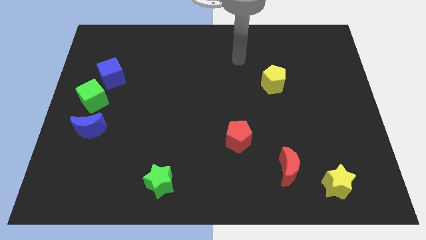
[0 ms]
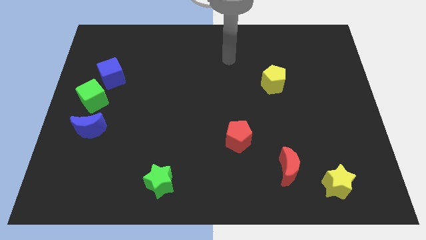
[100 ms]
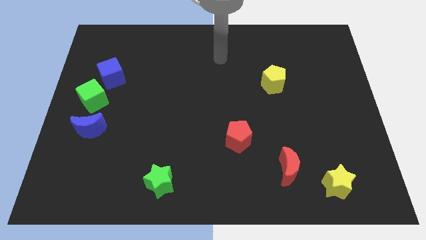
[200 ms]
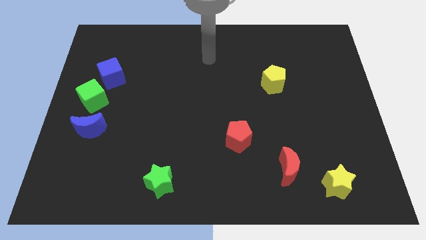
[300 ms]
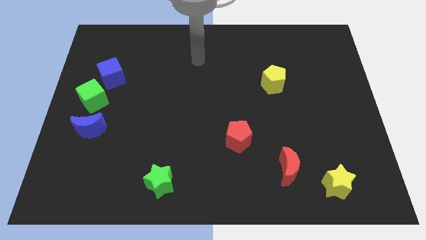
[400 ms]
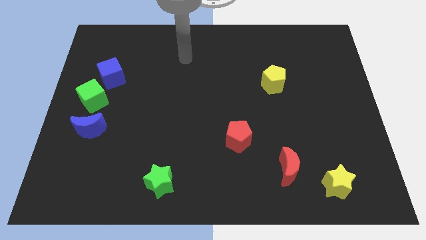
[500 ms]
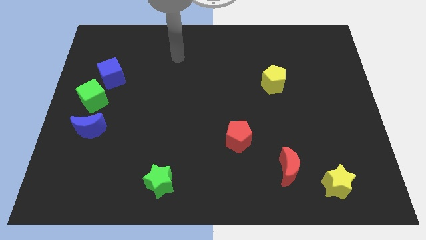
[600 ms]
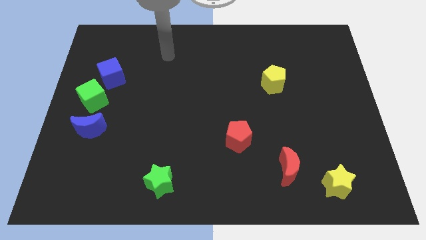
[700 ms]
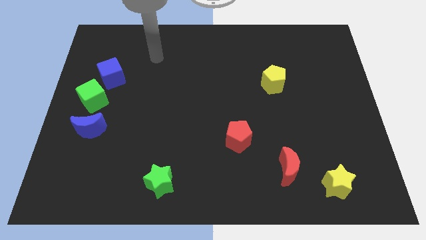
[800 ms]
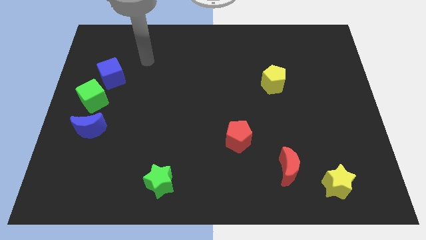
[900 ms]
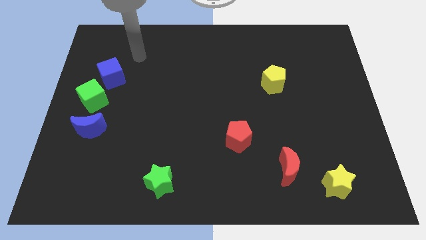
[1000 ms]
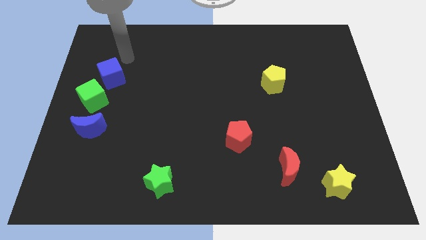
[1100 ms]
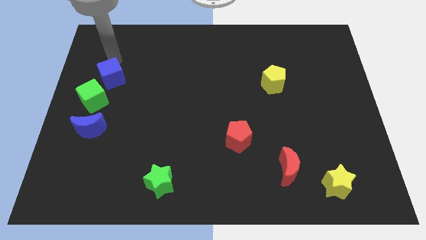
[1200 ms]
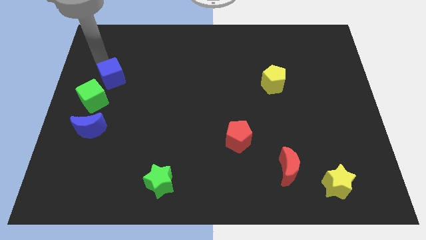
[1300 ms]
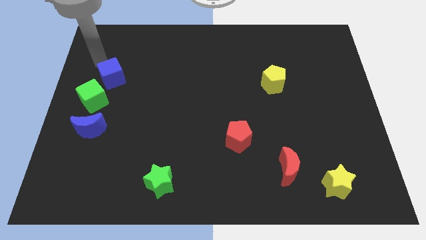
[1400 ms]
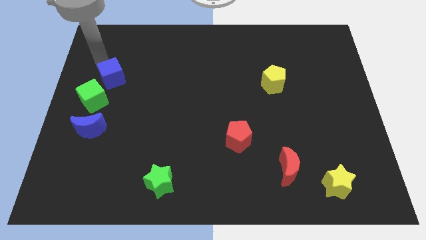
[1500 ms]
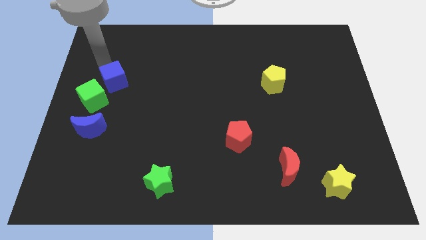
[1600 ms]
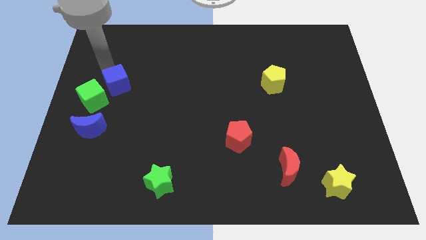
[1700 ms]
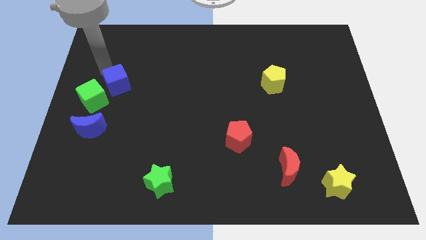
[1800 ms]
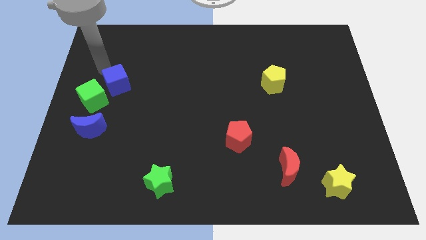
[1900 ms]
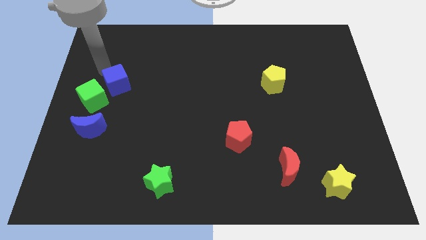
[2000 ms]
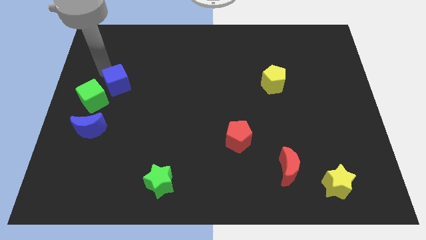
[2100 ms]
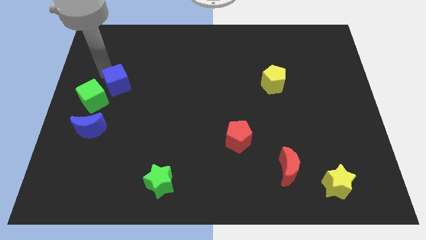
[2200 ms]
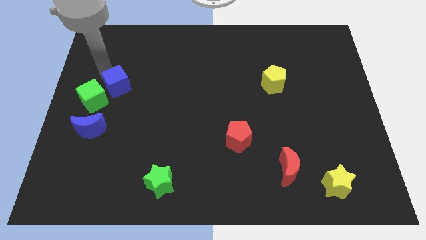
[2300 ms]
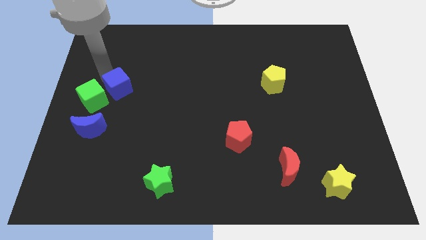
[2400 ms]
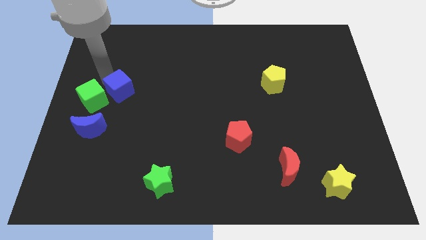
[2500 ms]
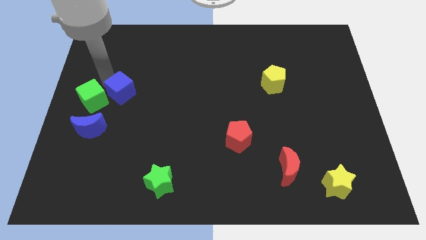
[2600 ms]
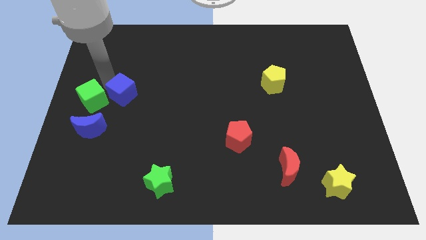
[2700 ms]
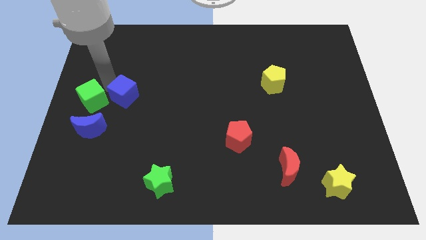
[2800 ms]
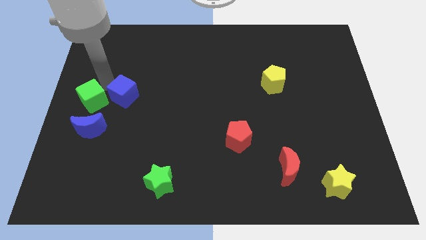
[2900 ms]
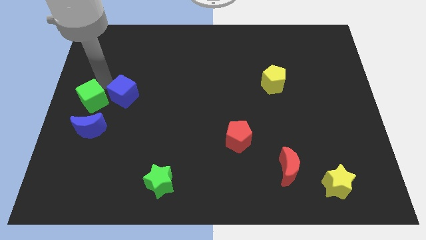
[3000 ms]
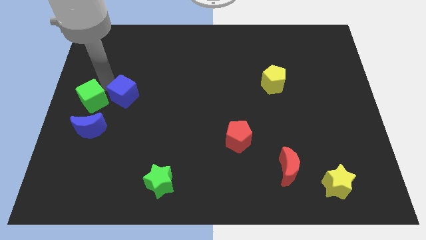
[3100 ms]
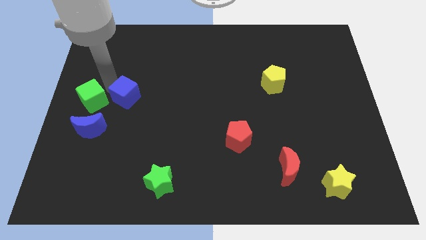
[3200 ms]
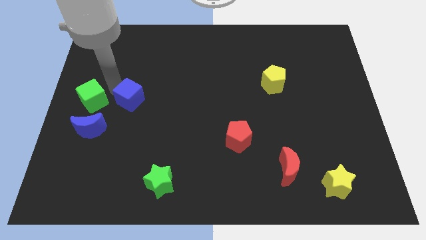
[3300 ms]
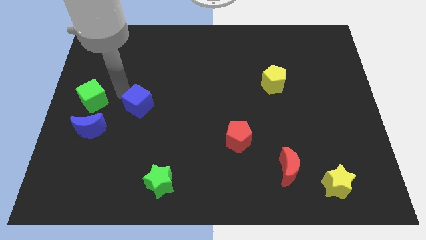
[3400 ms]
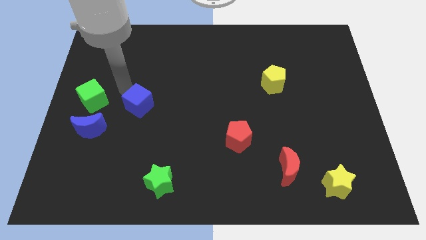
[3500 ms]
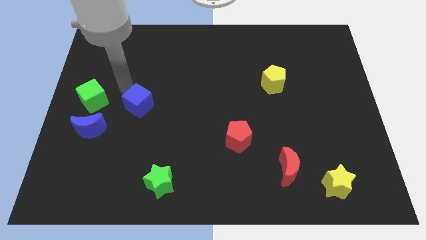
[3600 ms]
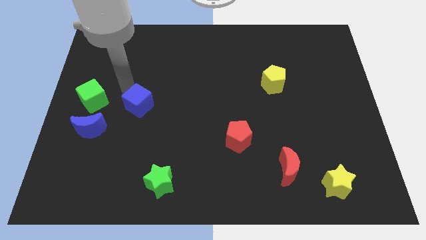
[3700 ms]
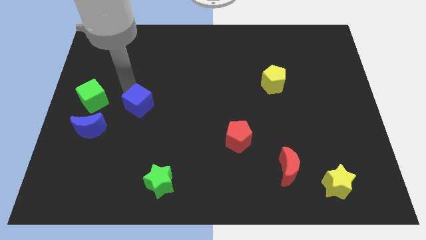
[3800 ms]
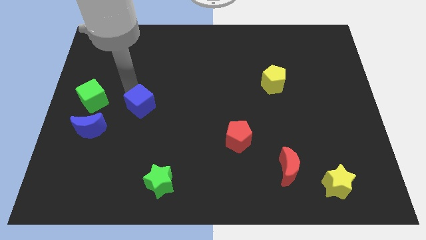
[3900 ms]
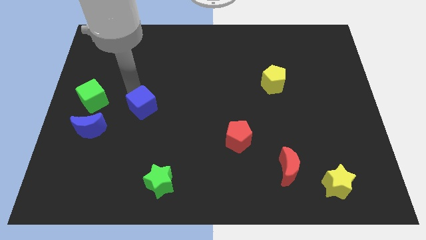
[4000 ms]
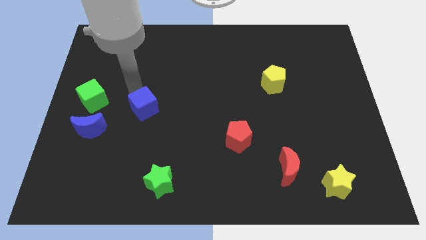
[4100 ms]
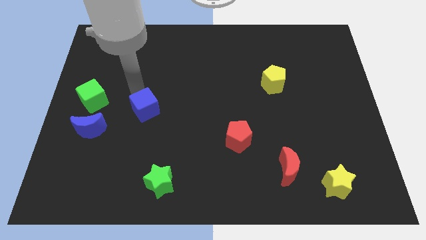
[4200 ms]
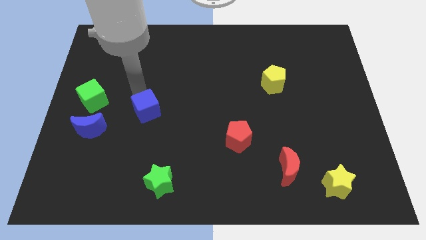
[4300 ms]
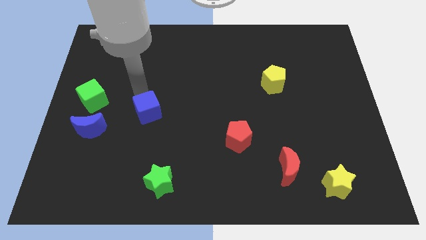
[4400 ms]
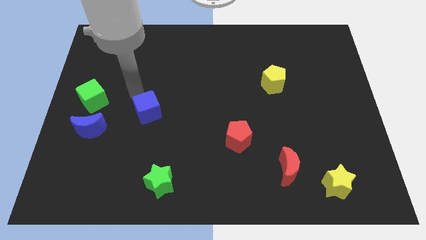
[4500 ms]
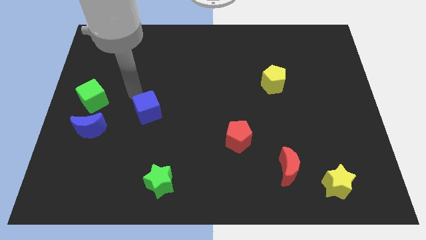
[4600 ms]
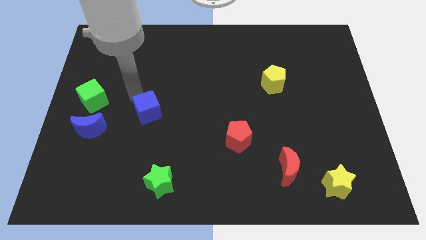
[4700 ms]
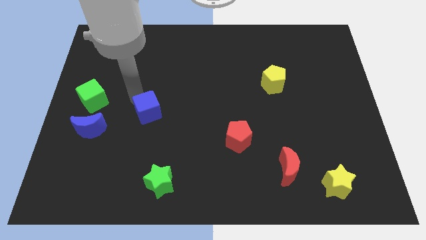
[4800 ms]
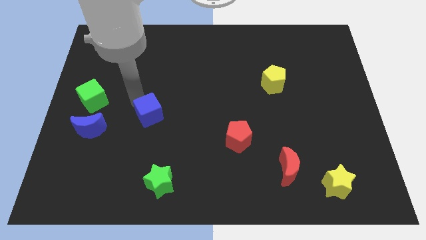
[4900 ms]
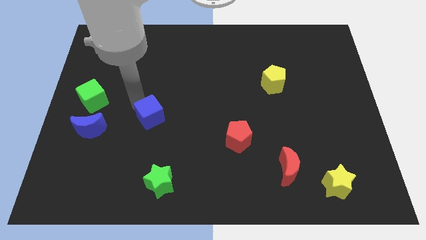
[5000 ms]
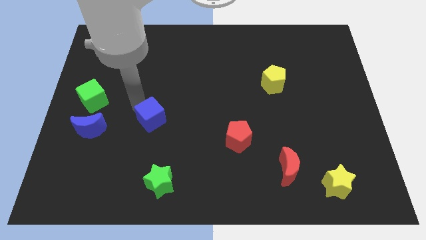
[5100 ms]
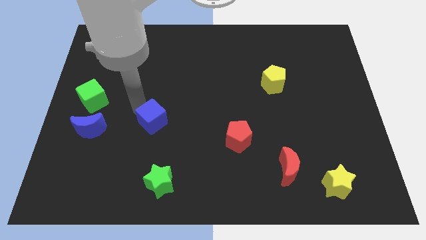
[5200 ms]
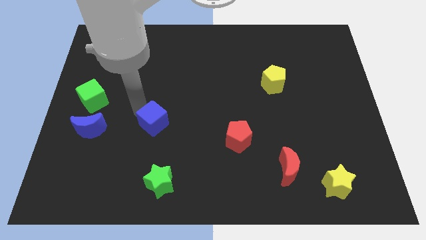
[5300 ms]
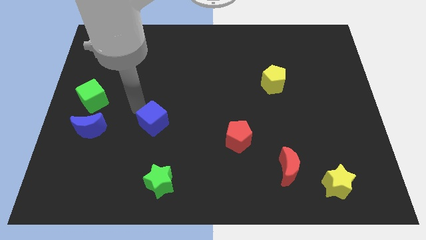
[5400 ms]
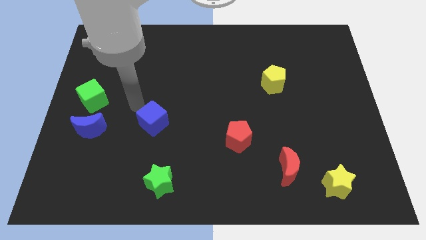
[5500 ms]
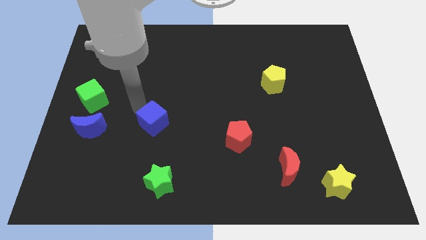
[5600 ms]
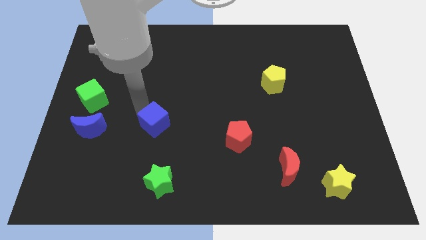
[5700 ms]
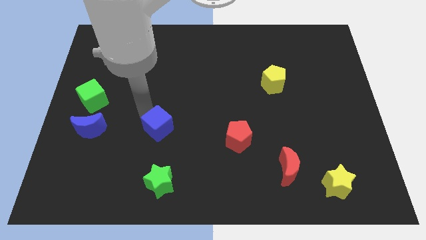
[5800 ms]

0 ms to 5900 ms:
slide the blue cube downwards and right

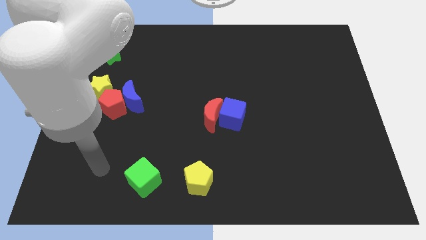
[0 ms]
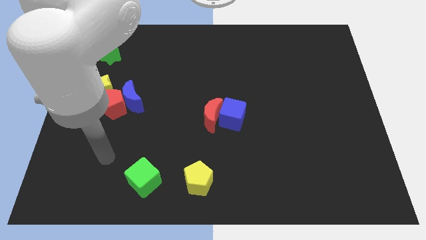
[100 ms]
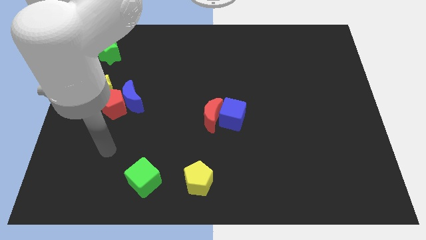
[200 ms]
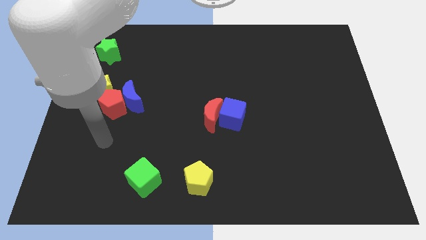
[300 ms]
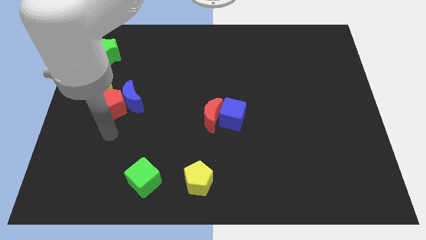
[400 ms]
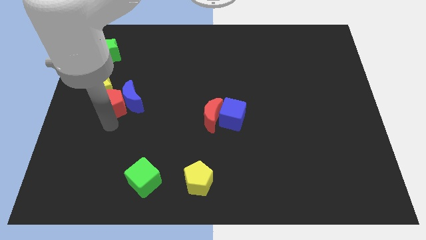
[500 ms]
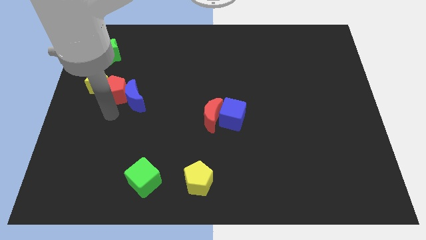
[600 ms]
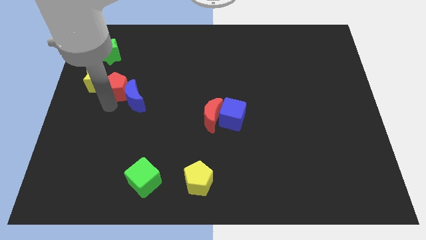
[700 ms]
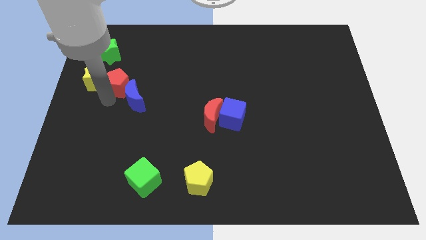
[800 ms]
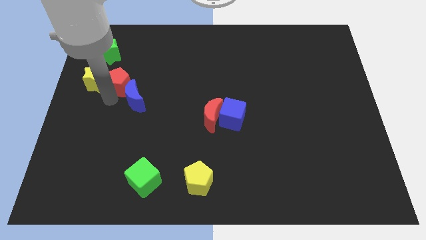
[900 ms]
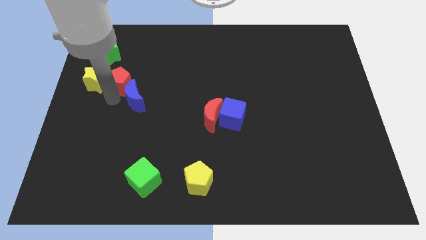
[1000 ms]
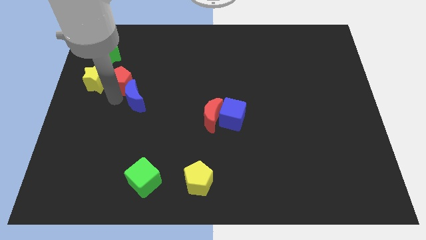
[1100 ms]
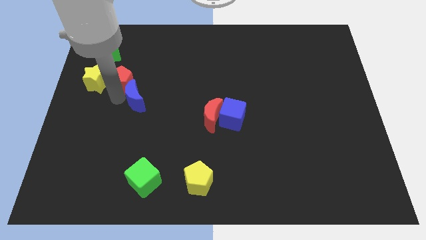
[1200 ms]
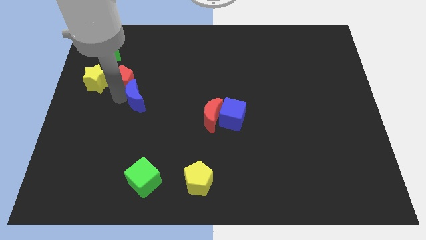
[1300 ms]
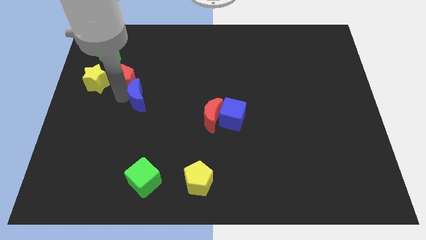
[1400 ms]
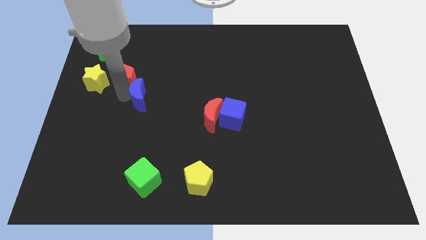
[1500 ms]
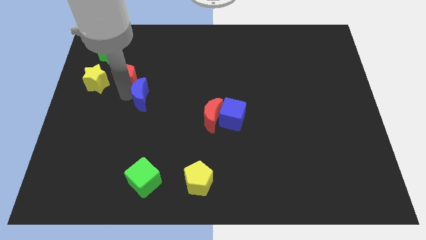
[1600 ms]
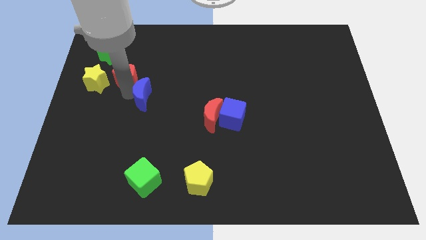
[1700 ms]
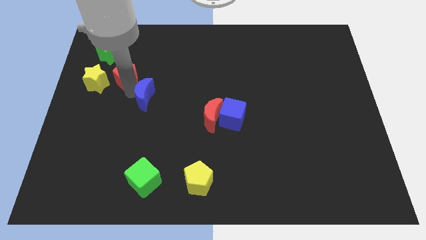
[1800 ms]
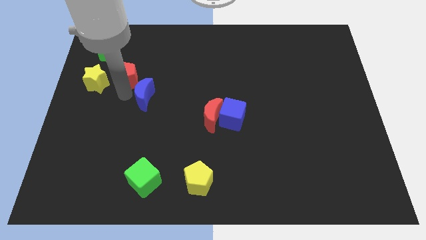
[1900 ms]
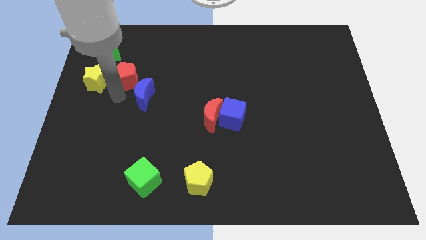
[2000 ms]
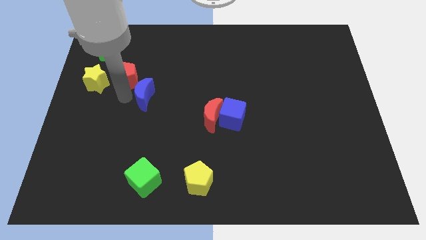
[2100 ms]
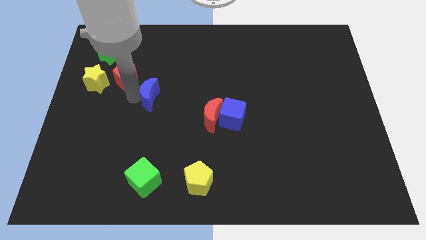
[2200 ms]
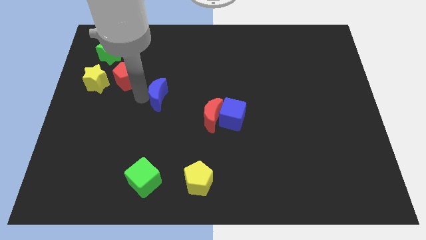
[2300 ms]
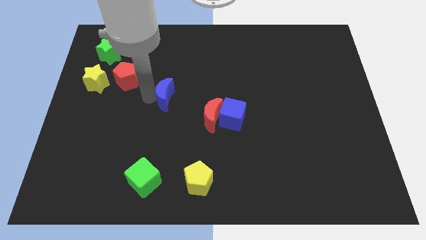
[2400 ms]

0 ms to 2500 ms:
slightly push the blue moon to the right
